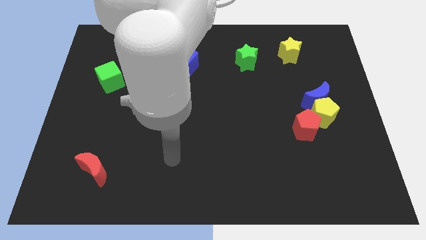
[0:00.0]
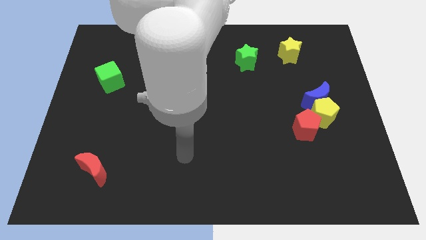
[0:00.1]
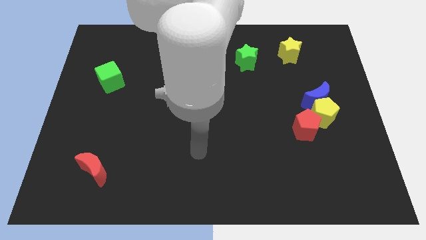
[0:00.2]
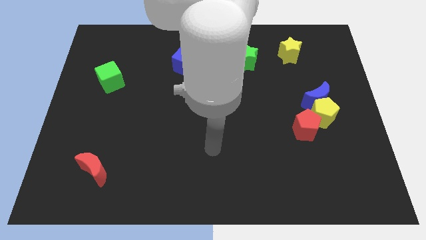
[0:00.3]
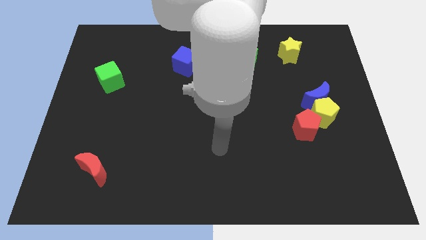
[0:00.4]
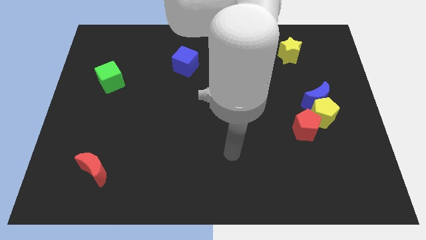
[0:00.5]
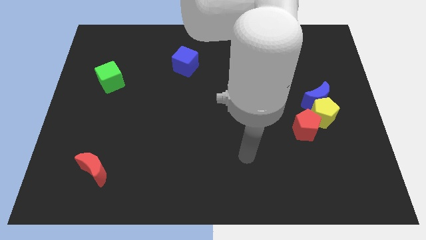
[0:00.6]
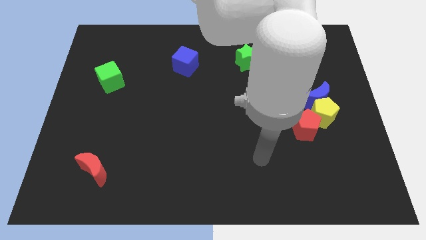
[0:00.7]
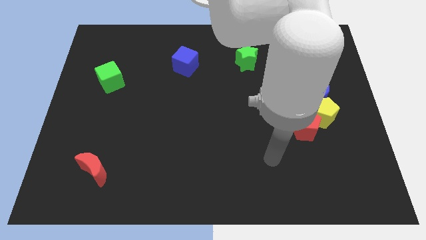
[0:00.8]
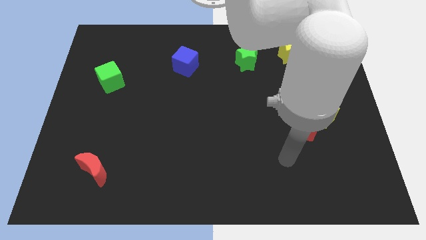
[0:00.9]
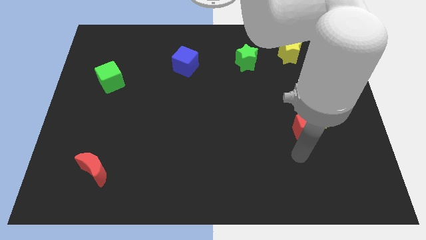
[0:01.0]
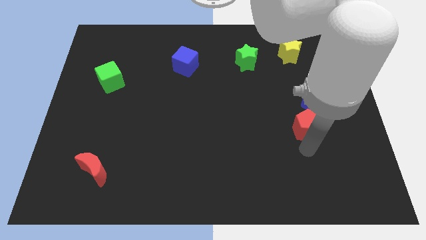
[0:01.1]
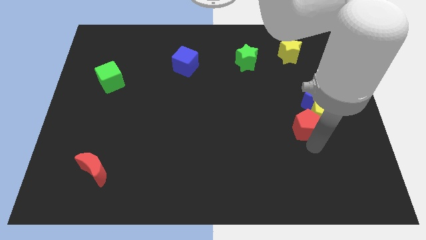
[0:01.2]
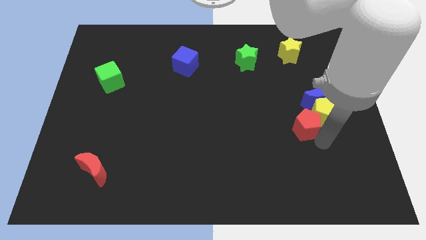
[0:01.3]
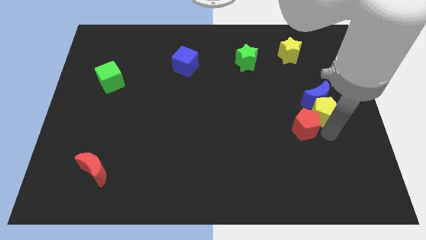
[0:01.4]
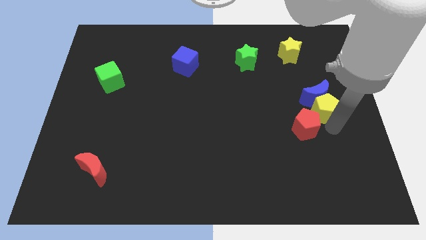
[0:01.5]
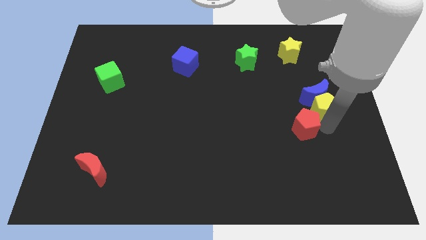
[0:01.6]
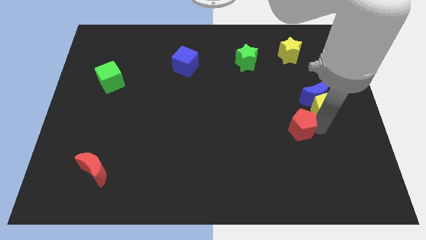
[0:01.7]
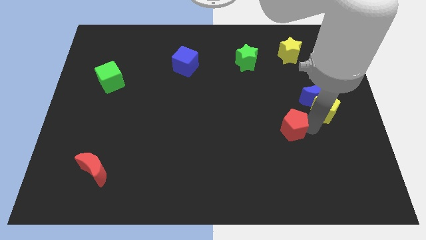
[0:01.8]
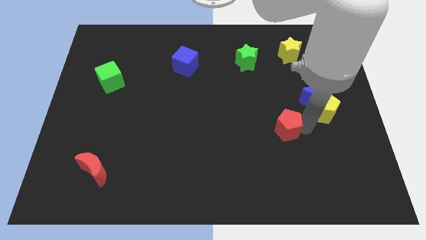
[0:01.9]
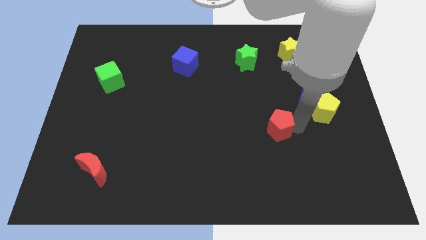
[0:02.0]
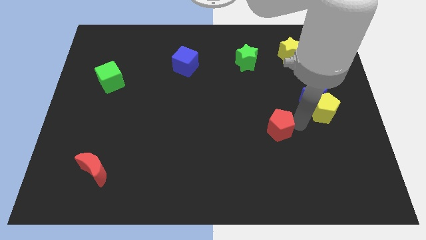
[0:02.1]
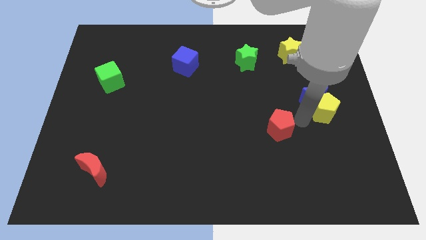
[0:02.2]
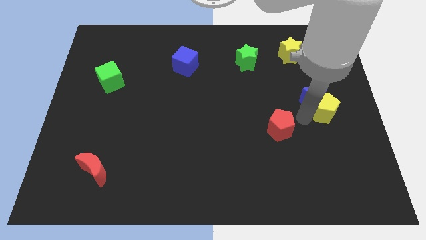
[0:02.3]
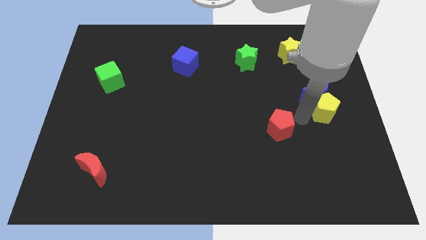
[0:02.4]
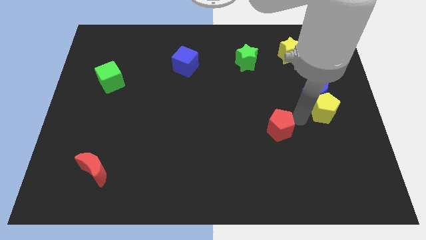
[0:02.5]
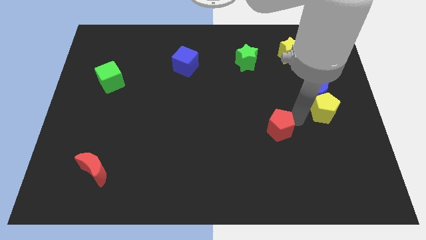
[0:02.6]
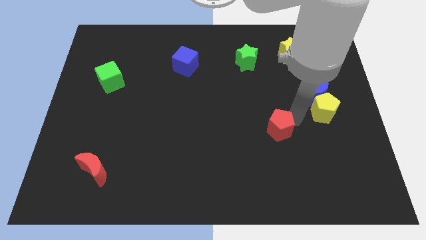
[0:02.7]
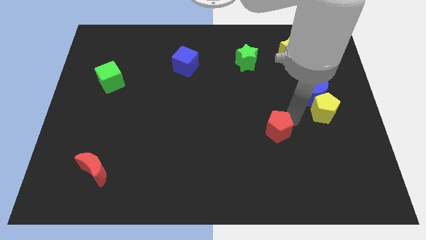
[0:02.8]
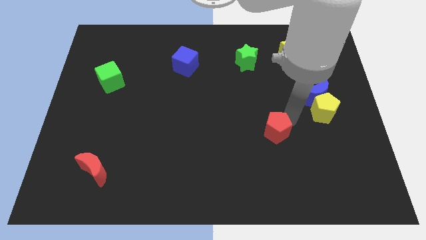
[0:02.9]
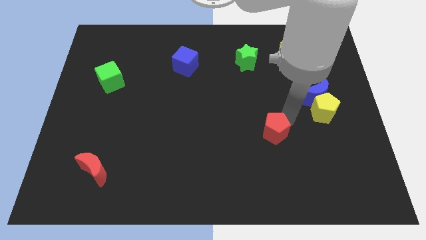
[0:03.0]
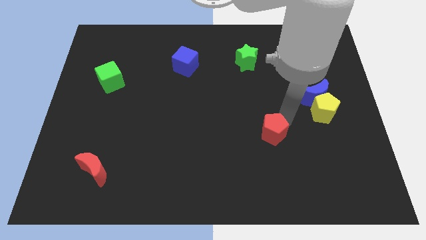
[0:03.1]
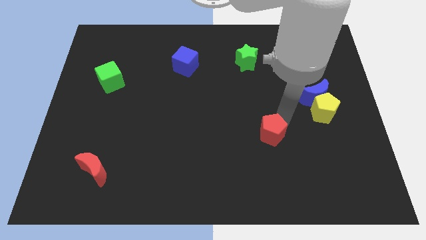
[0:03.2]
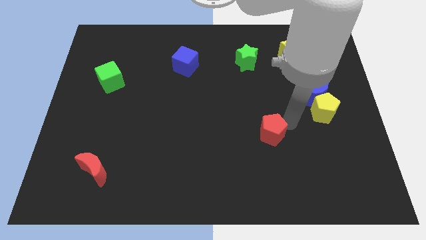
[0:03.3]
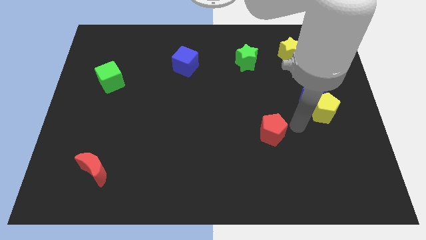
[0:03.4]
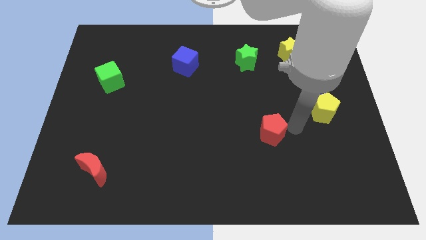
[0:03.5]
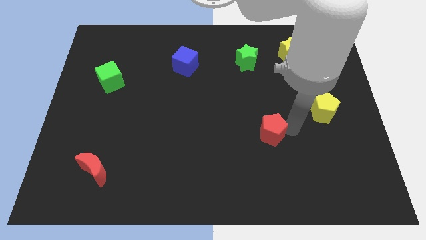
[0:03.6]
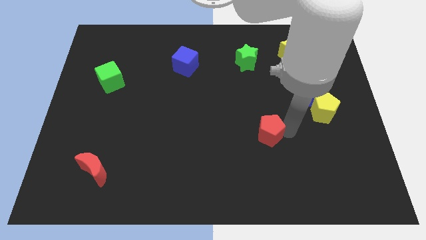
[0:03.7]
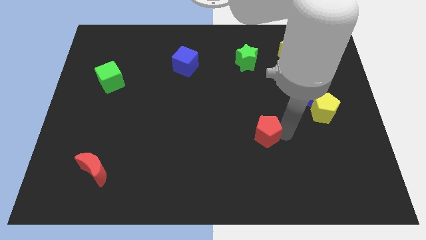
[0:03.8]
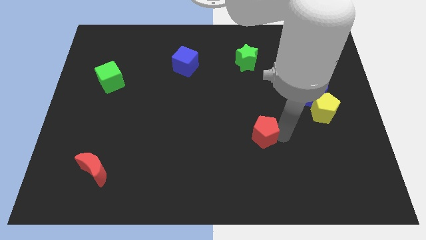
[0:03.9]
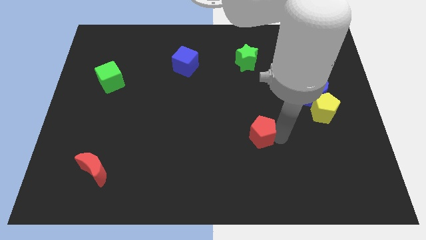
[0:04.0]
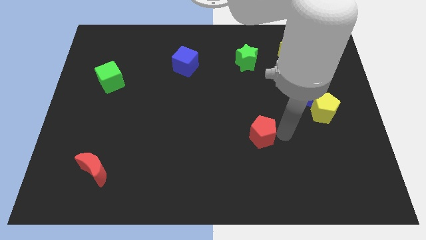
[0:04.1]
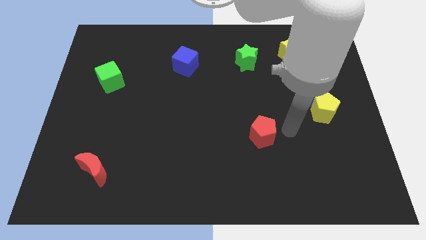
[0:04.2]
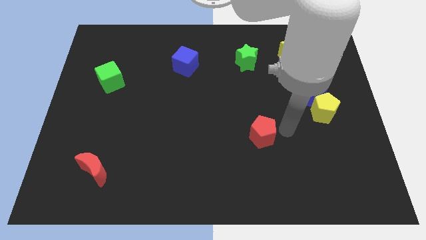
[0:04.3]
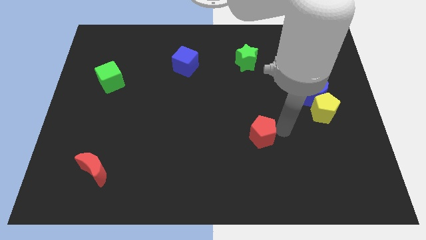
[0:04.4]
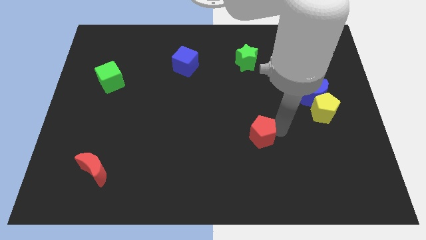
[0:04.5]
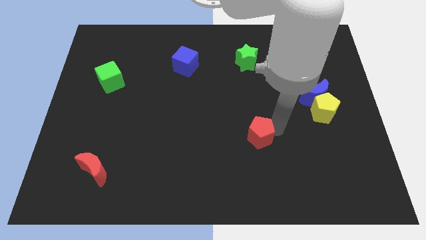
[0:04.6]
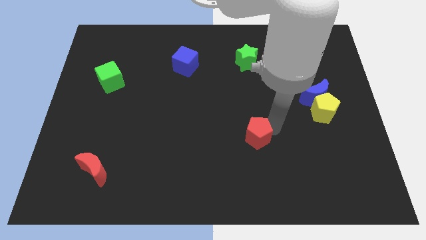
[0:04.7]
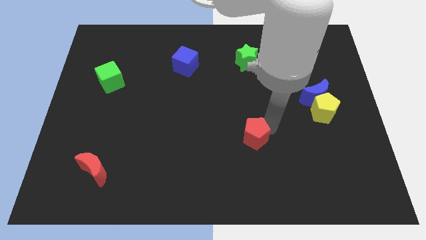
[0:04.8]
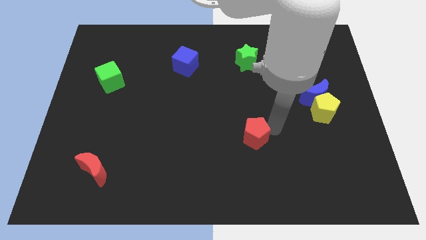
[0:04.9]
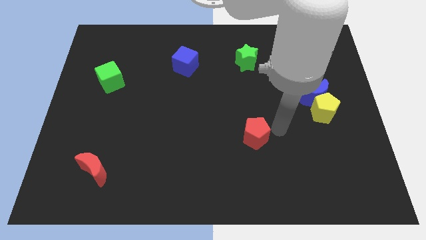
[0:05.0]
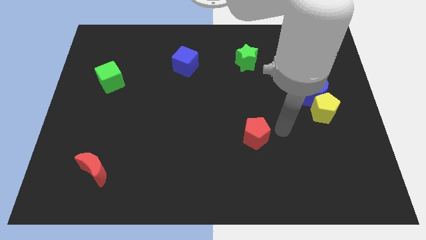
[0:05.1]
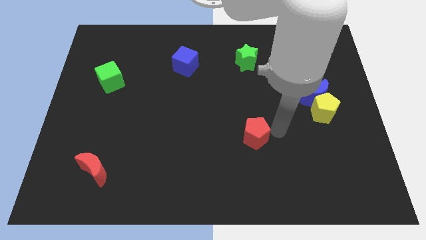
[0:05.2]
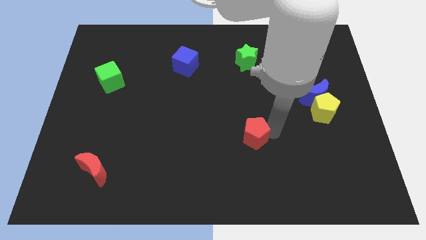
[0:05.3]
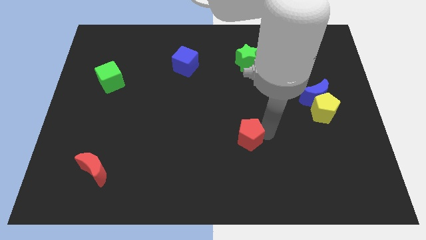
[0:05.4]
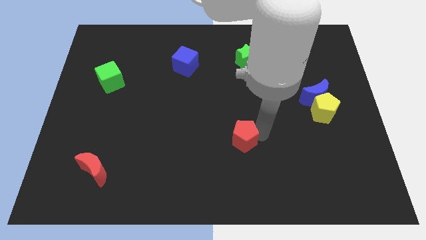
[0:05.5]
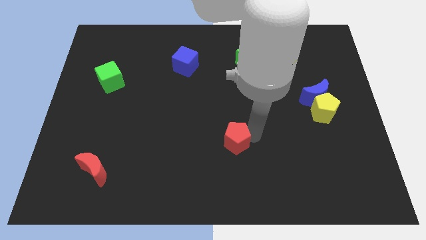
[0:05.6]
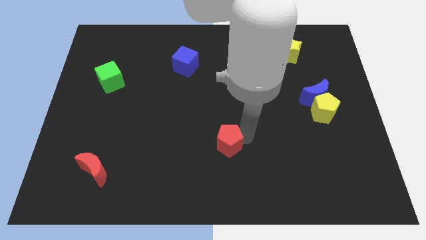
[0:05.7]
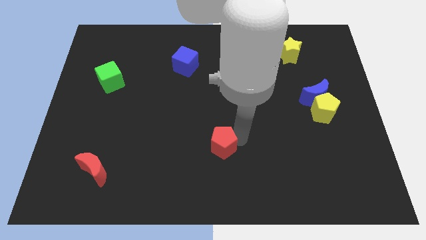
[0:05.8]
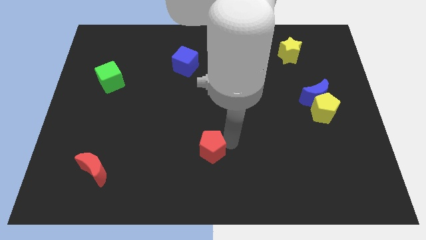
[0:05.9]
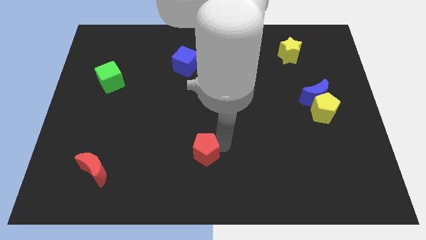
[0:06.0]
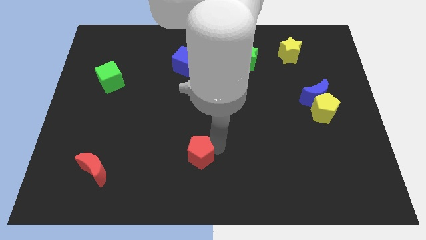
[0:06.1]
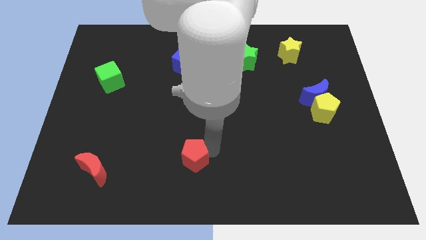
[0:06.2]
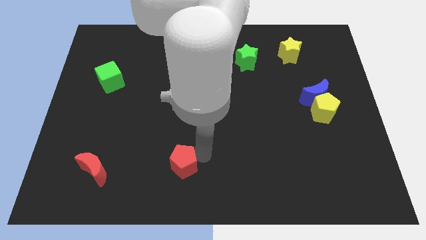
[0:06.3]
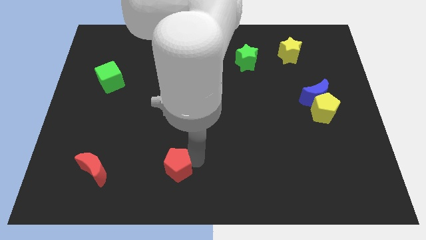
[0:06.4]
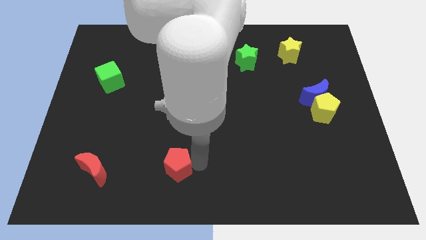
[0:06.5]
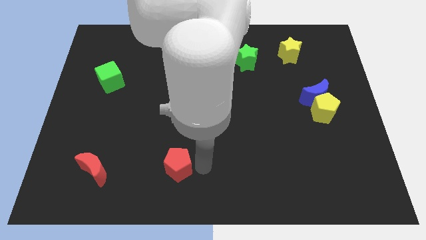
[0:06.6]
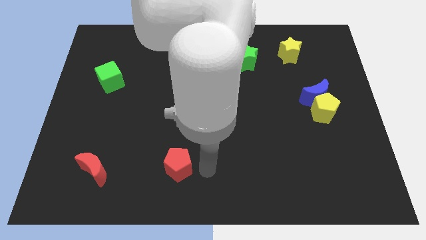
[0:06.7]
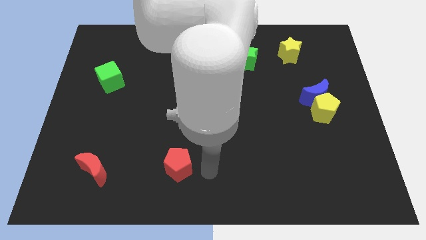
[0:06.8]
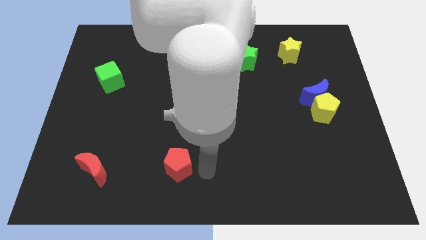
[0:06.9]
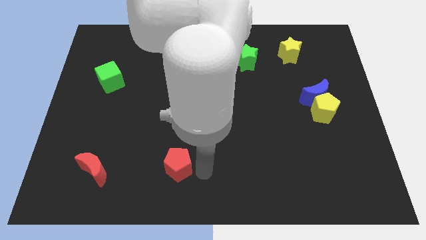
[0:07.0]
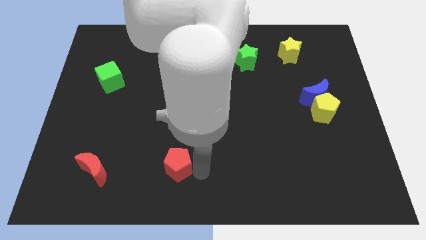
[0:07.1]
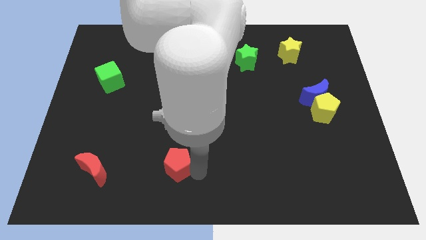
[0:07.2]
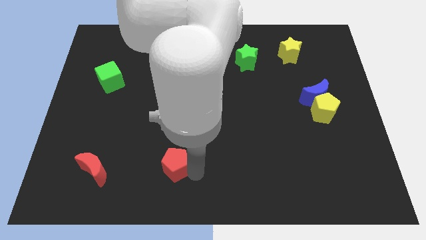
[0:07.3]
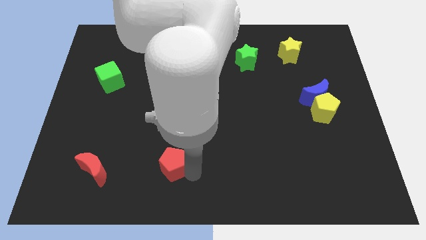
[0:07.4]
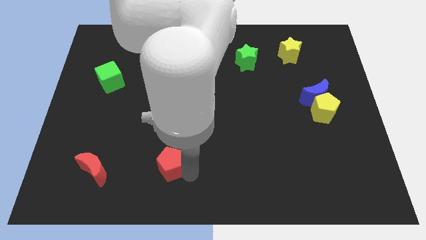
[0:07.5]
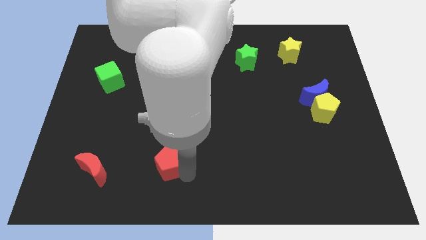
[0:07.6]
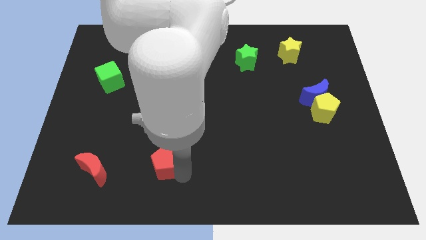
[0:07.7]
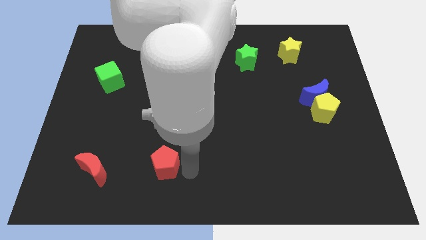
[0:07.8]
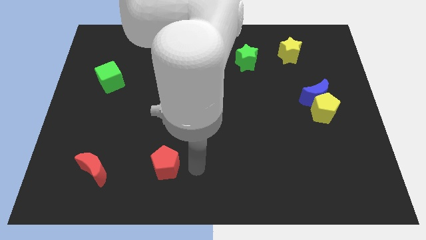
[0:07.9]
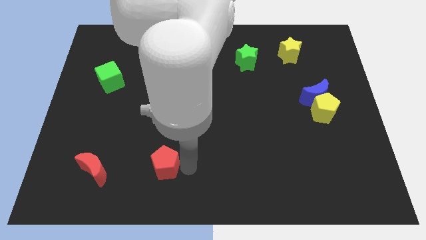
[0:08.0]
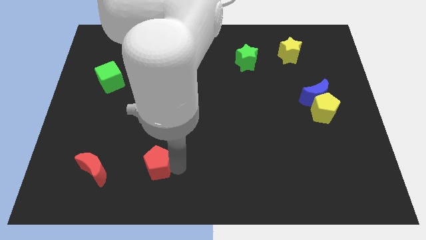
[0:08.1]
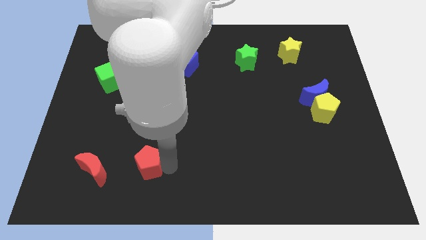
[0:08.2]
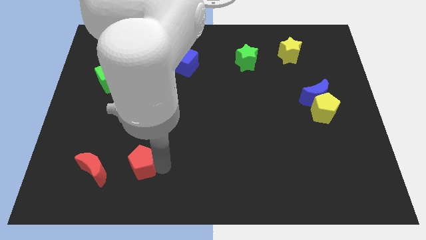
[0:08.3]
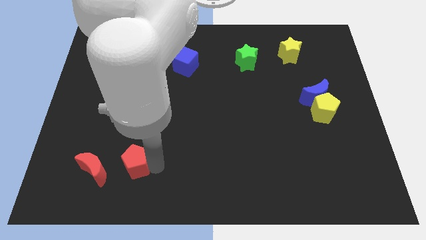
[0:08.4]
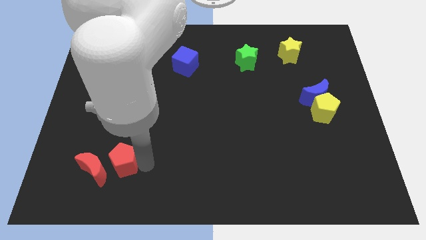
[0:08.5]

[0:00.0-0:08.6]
move the red pentagon close to the red moon
